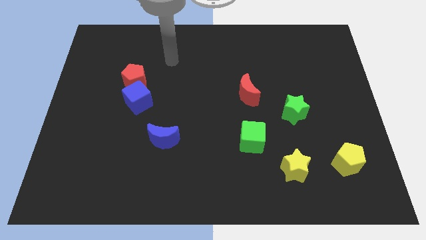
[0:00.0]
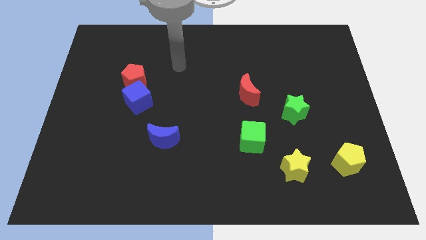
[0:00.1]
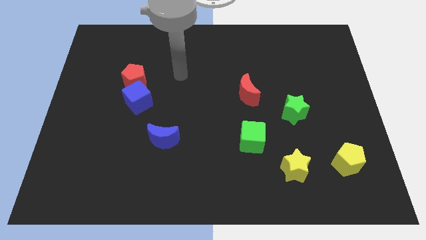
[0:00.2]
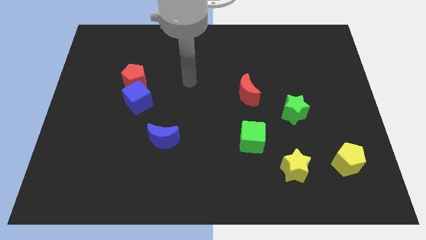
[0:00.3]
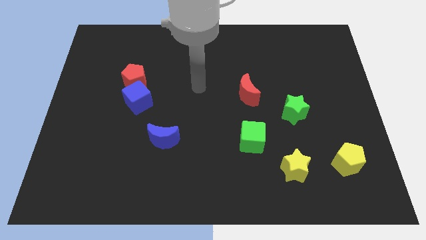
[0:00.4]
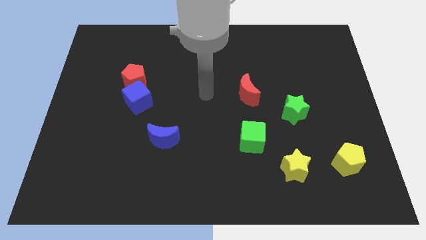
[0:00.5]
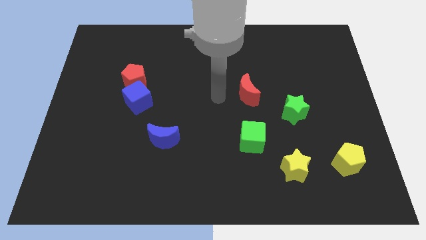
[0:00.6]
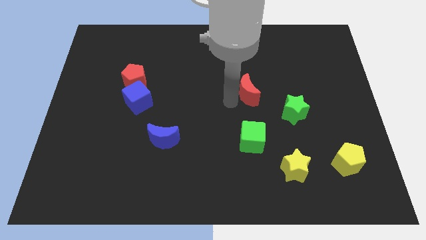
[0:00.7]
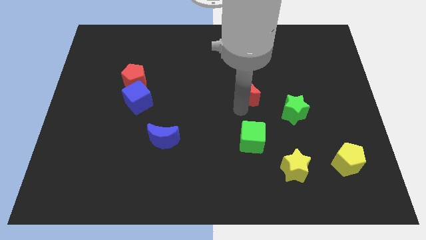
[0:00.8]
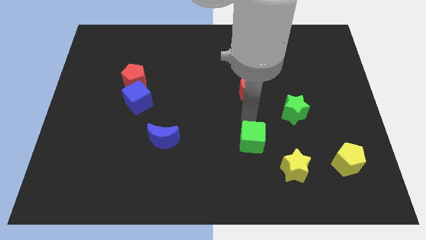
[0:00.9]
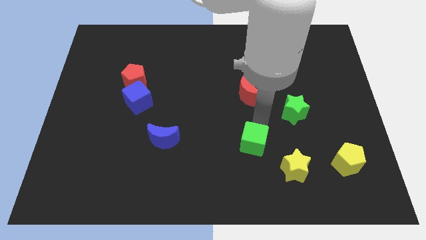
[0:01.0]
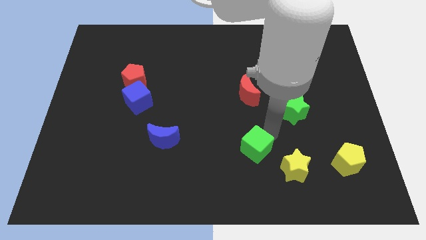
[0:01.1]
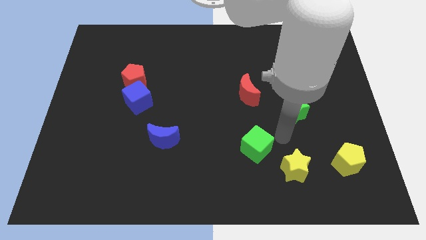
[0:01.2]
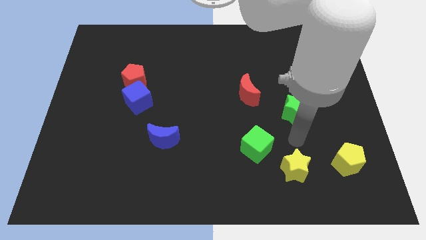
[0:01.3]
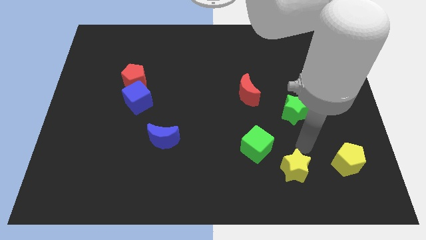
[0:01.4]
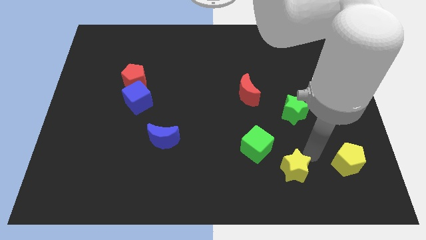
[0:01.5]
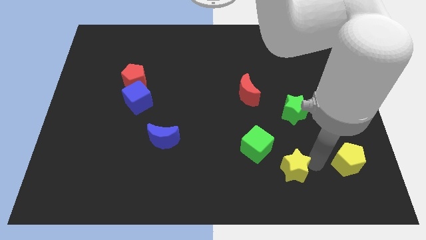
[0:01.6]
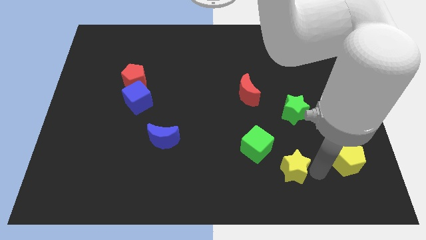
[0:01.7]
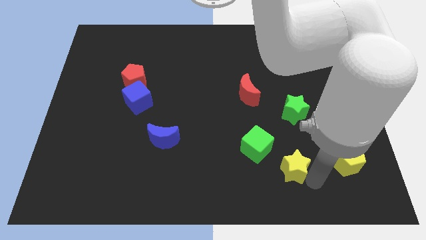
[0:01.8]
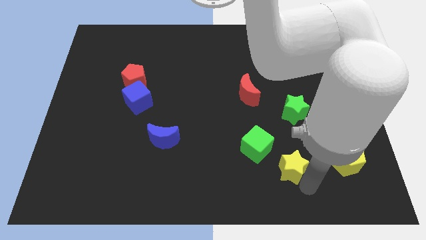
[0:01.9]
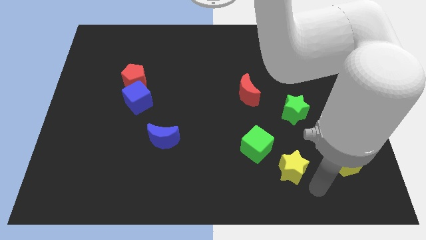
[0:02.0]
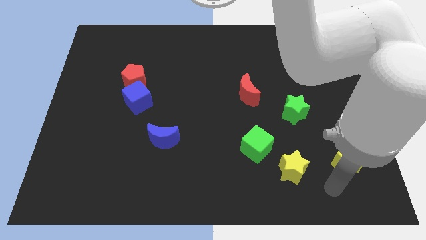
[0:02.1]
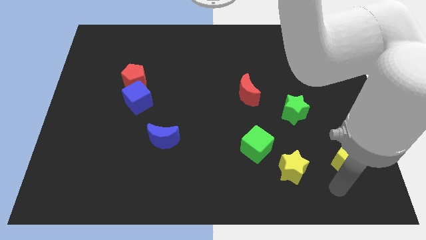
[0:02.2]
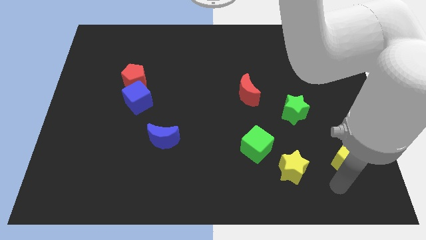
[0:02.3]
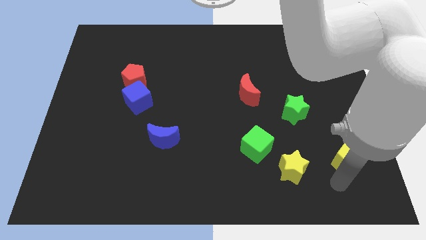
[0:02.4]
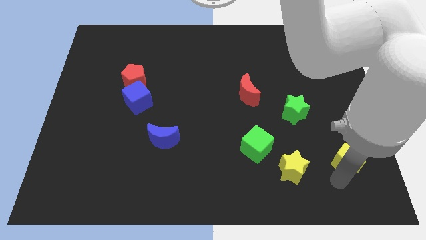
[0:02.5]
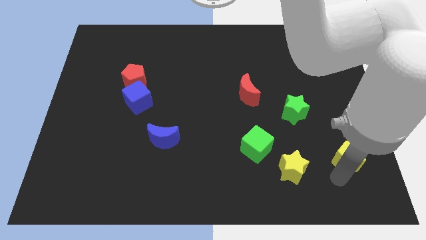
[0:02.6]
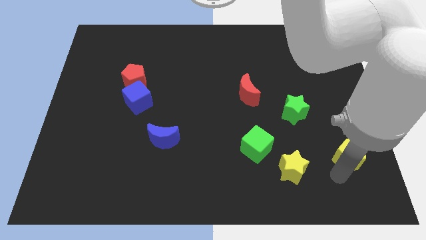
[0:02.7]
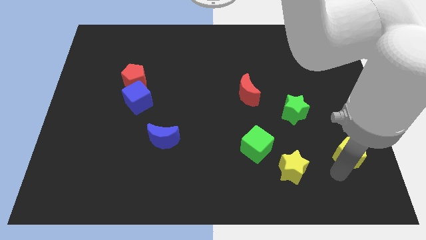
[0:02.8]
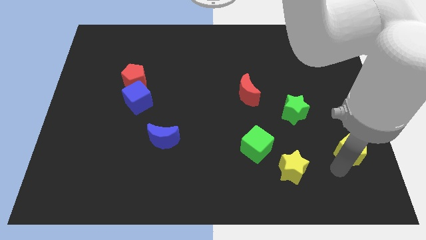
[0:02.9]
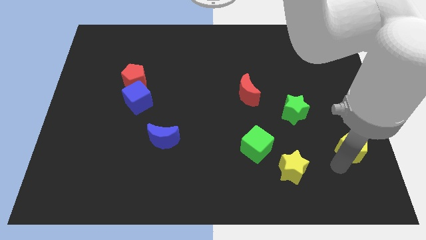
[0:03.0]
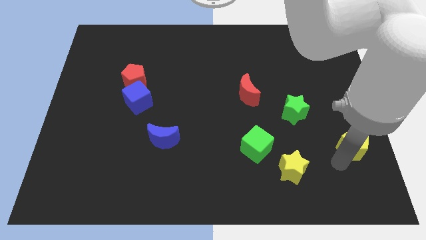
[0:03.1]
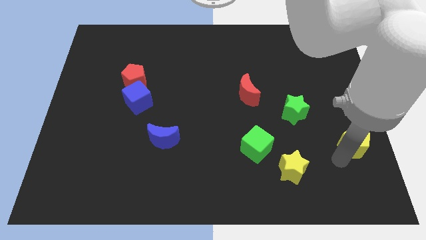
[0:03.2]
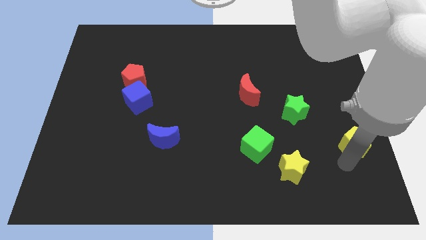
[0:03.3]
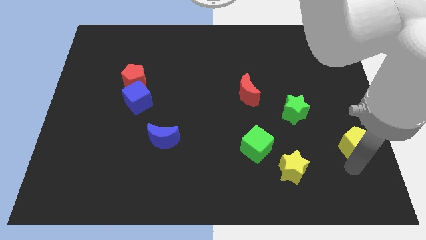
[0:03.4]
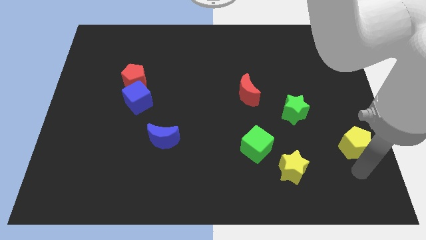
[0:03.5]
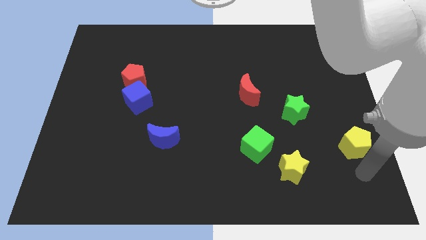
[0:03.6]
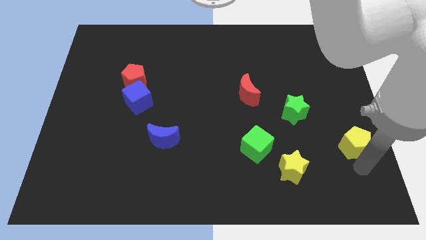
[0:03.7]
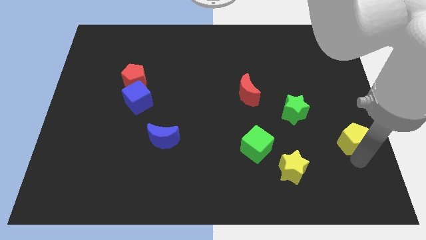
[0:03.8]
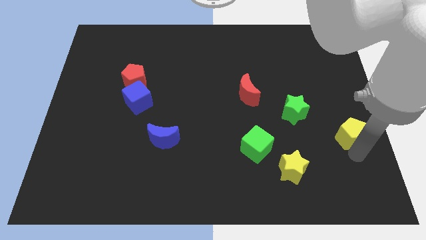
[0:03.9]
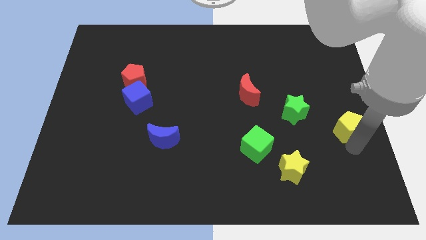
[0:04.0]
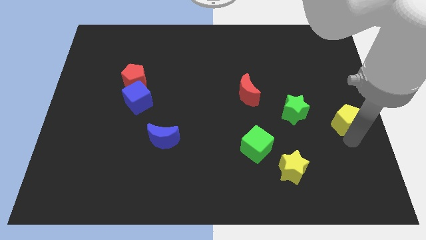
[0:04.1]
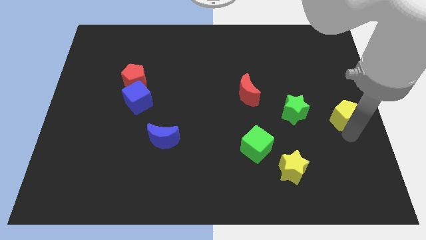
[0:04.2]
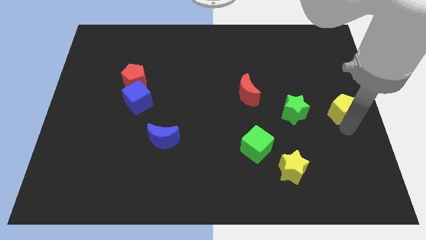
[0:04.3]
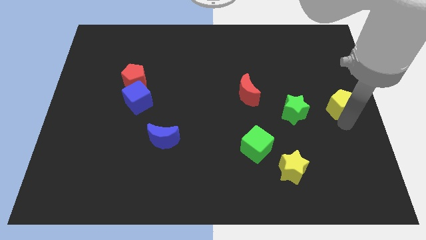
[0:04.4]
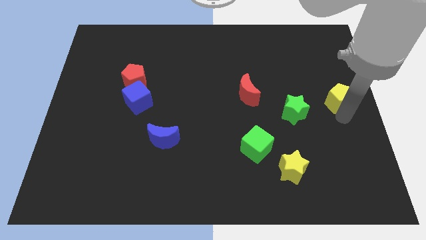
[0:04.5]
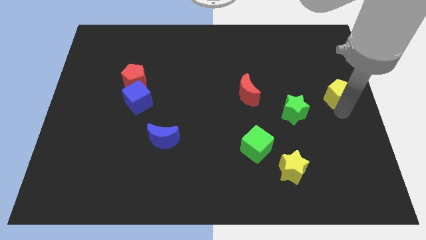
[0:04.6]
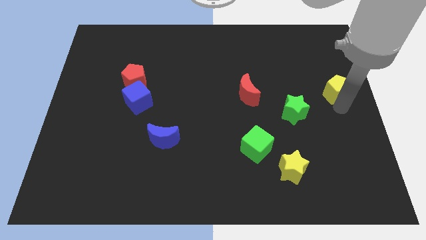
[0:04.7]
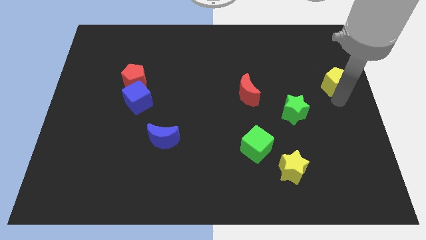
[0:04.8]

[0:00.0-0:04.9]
slide the yellow pentagon up

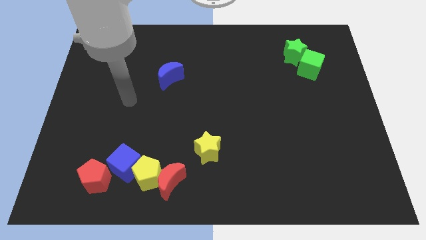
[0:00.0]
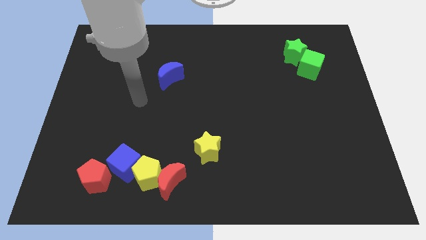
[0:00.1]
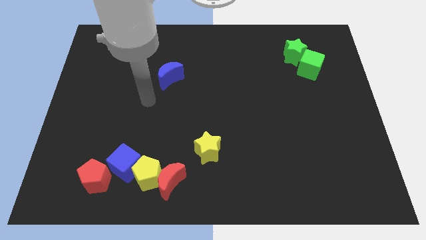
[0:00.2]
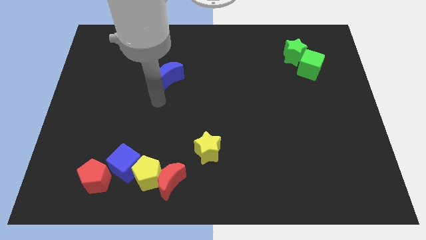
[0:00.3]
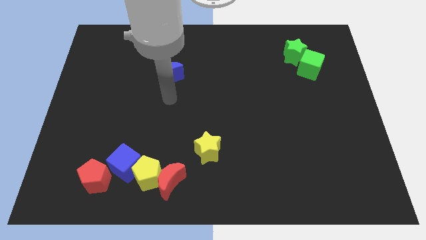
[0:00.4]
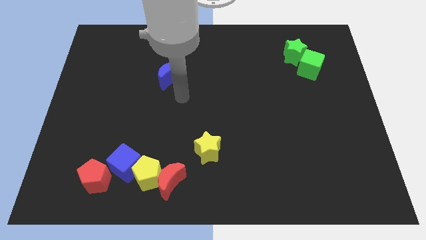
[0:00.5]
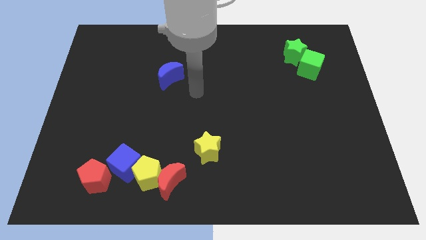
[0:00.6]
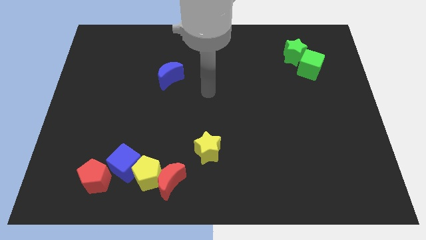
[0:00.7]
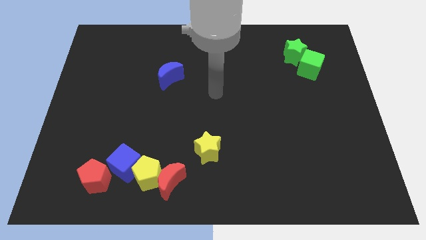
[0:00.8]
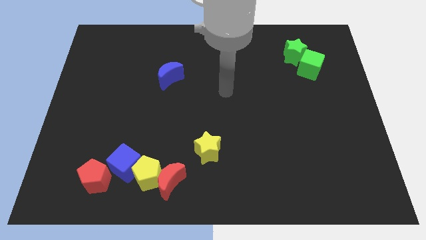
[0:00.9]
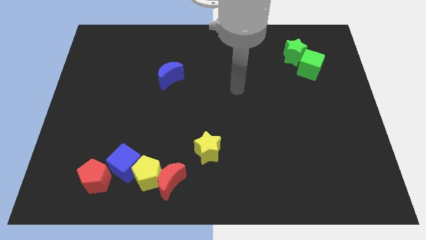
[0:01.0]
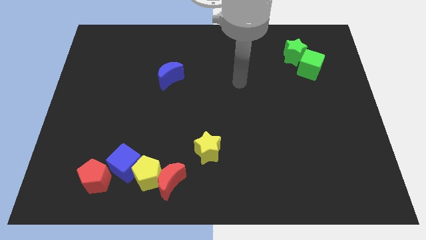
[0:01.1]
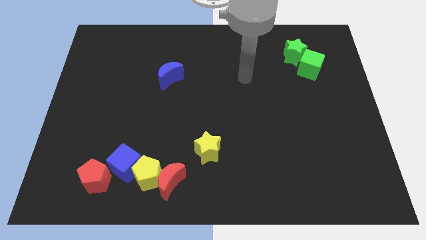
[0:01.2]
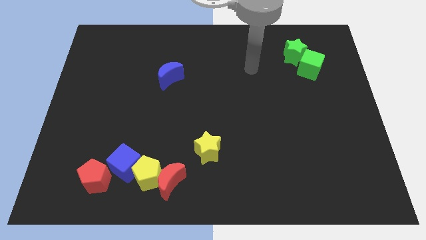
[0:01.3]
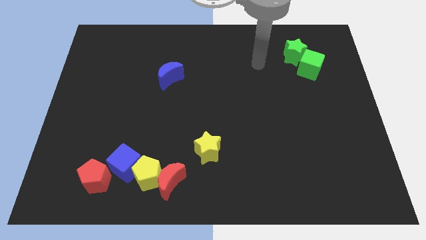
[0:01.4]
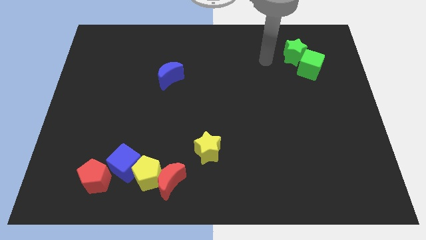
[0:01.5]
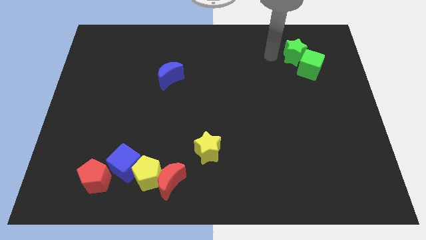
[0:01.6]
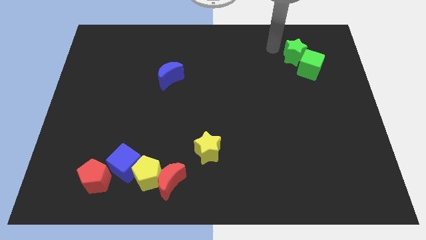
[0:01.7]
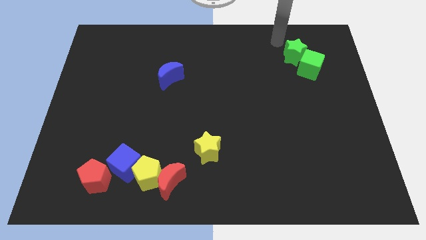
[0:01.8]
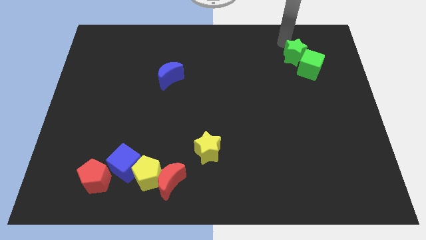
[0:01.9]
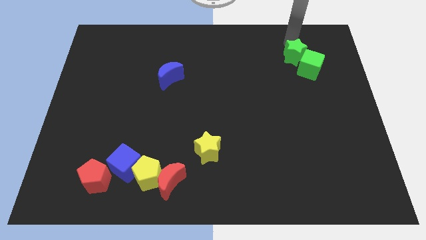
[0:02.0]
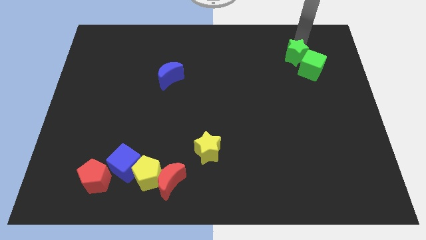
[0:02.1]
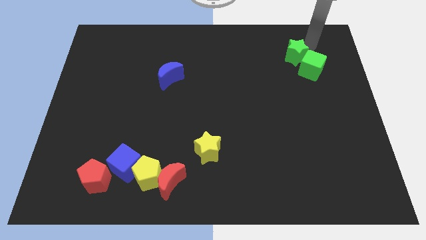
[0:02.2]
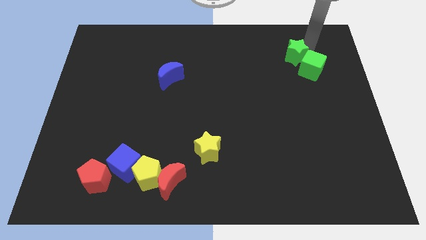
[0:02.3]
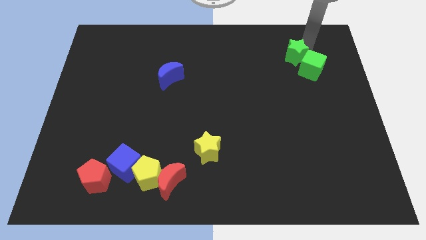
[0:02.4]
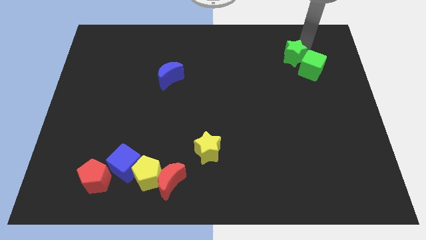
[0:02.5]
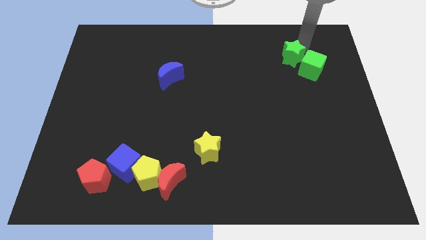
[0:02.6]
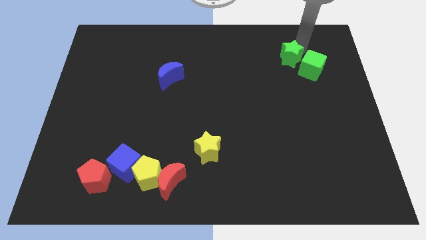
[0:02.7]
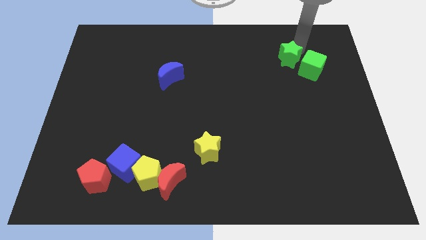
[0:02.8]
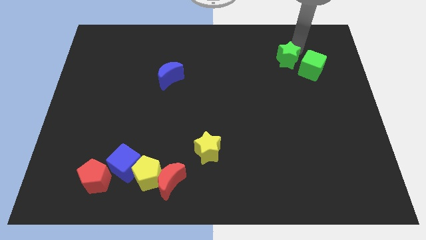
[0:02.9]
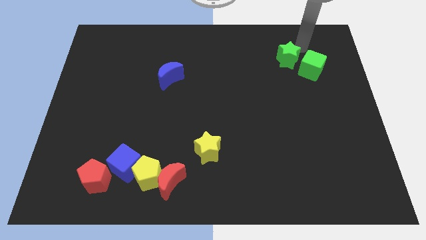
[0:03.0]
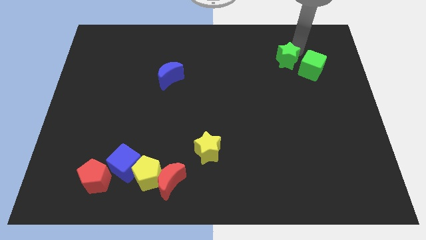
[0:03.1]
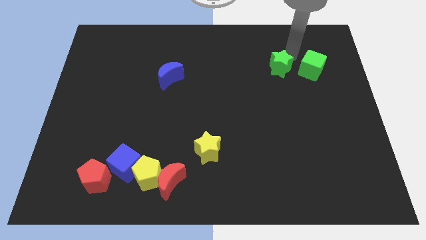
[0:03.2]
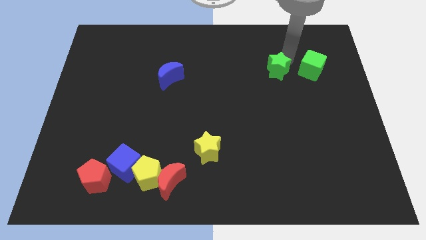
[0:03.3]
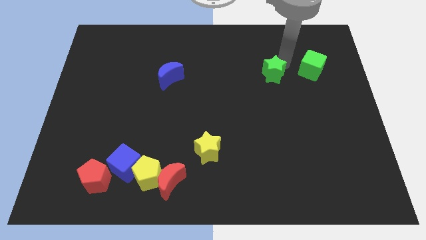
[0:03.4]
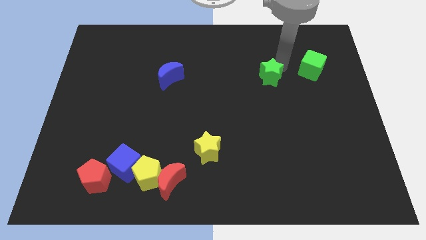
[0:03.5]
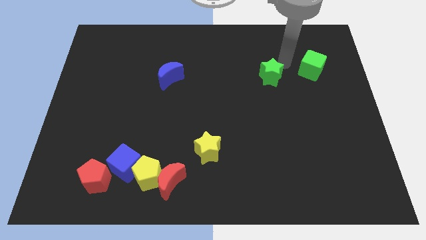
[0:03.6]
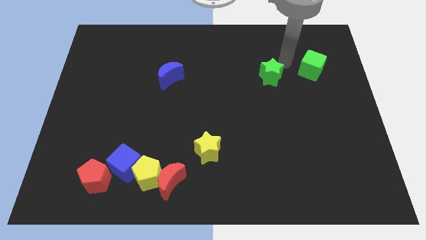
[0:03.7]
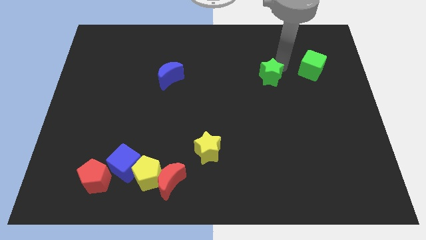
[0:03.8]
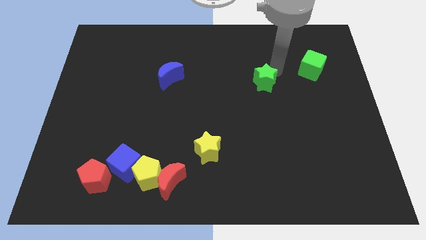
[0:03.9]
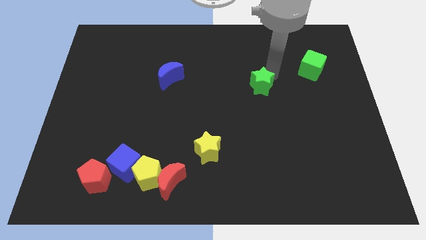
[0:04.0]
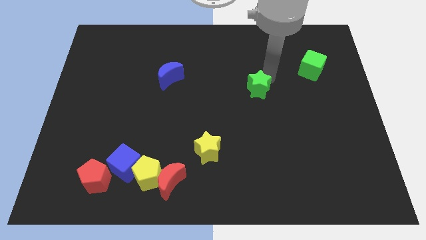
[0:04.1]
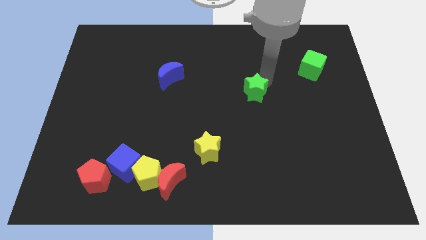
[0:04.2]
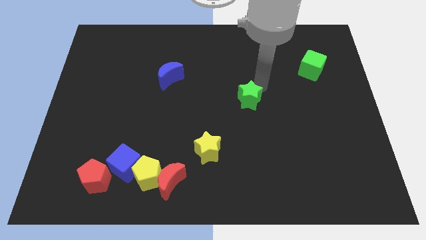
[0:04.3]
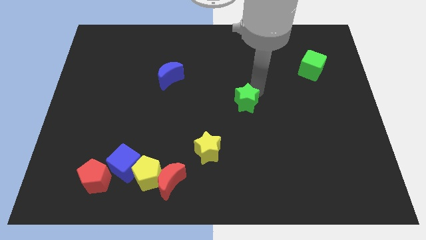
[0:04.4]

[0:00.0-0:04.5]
move the green star down and then left
